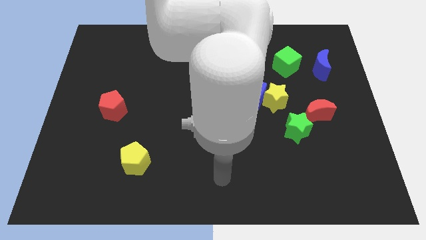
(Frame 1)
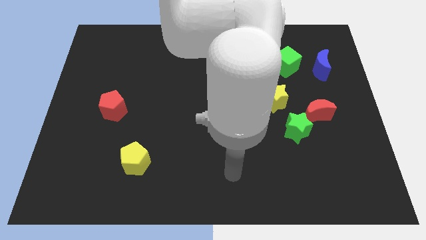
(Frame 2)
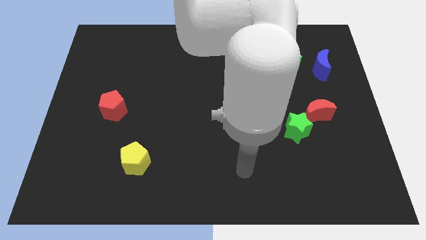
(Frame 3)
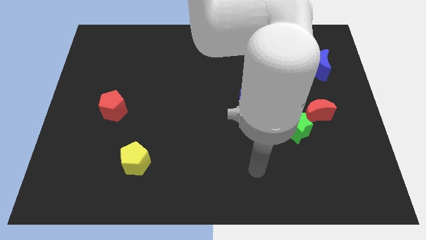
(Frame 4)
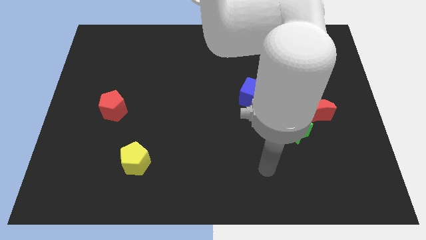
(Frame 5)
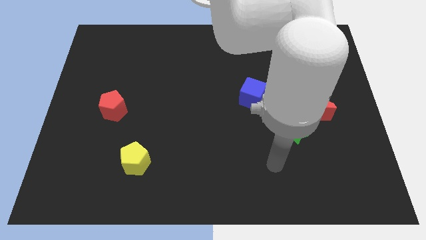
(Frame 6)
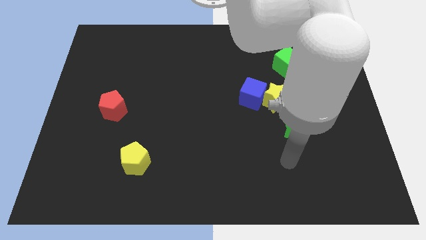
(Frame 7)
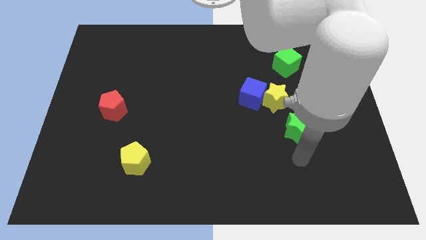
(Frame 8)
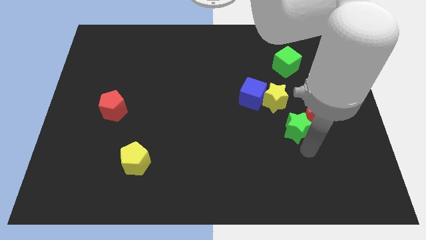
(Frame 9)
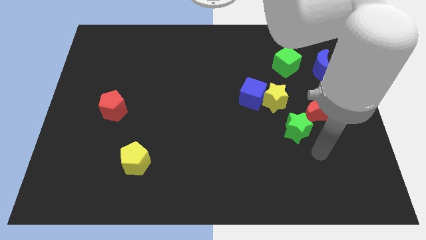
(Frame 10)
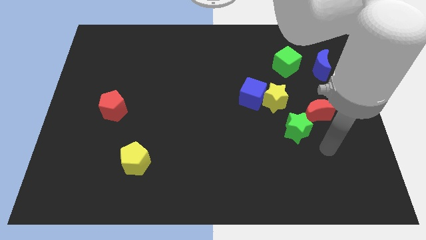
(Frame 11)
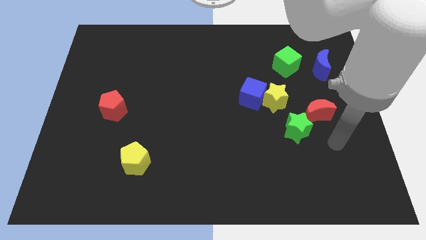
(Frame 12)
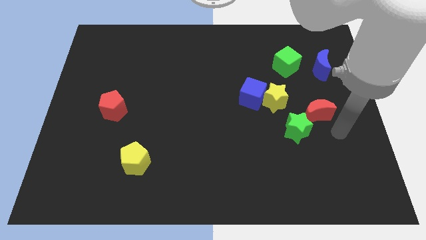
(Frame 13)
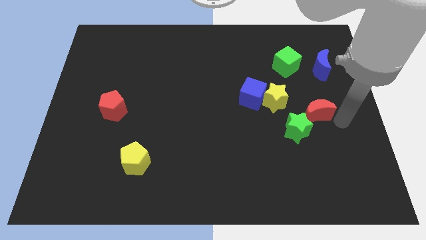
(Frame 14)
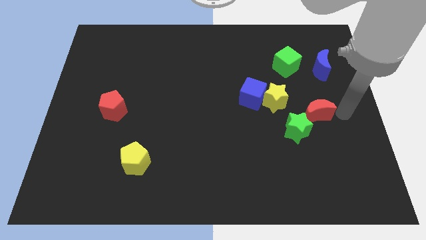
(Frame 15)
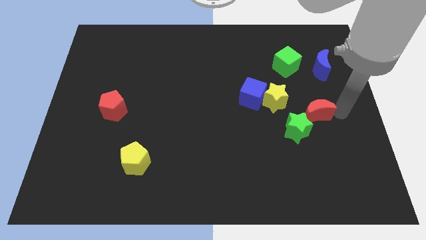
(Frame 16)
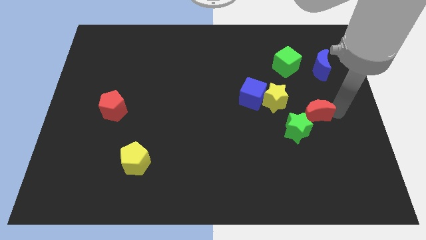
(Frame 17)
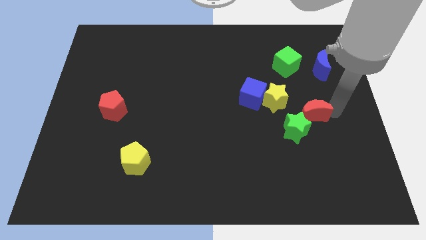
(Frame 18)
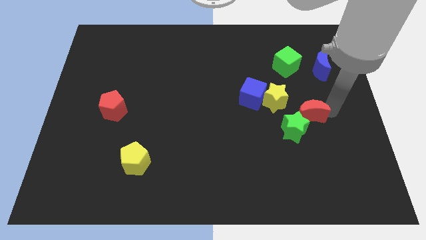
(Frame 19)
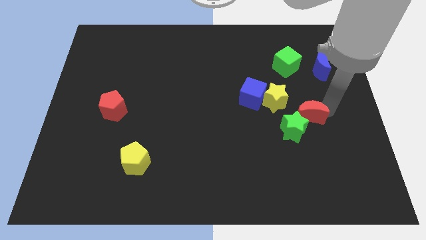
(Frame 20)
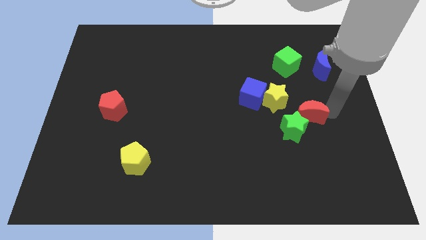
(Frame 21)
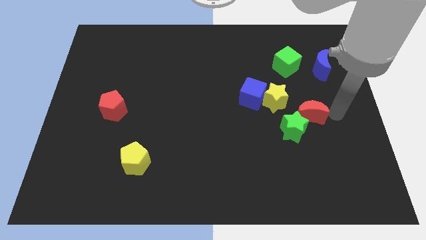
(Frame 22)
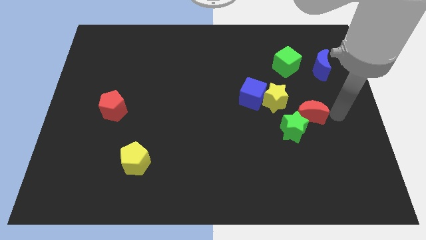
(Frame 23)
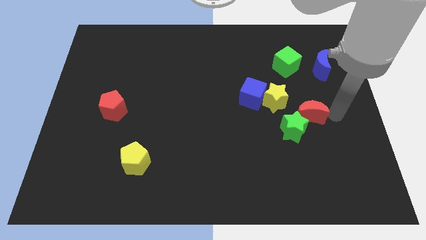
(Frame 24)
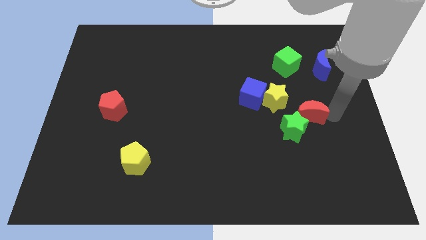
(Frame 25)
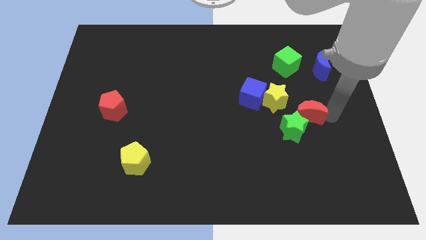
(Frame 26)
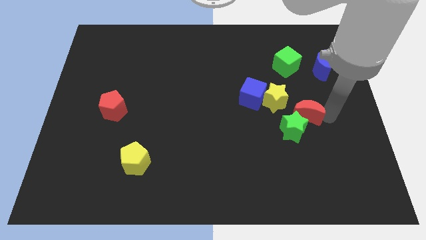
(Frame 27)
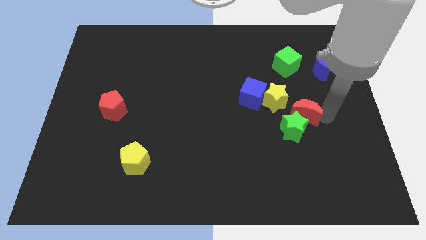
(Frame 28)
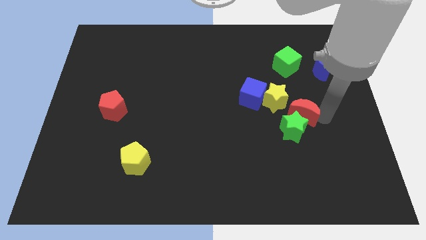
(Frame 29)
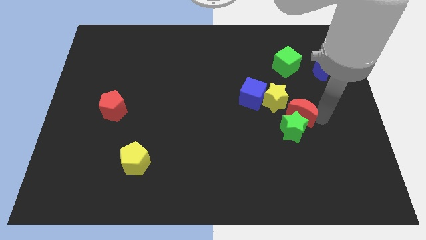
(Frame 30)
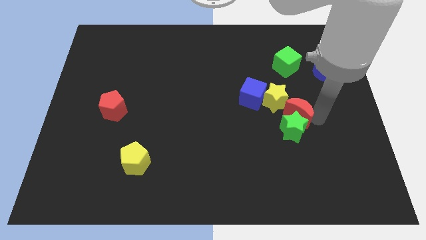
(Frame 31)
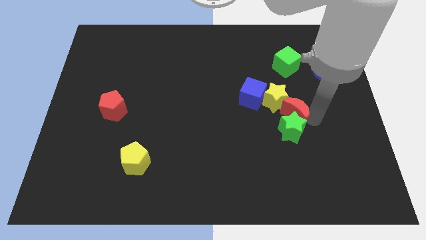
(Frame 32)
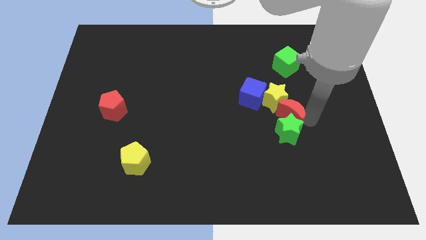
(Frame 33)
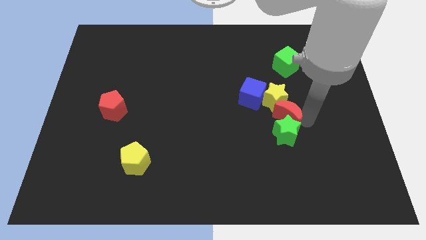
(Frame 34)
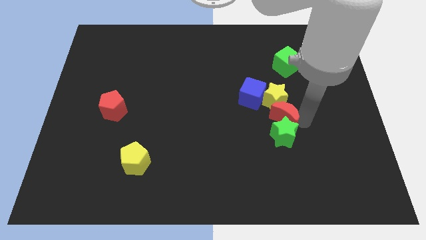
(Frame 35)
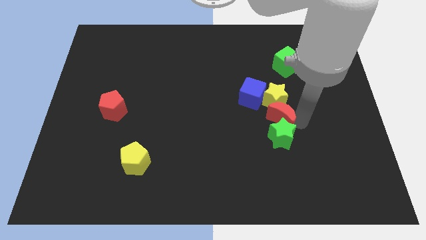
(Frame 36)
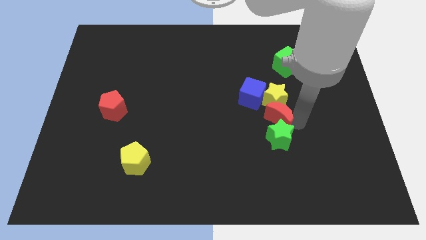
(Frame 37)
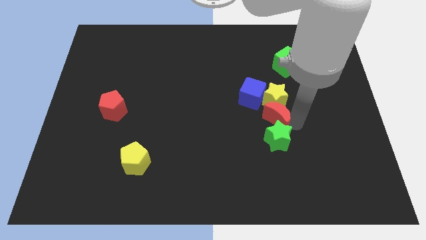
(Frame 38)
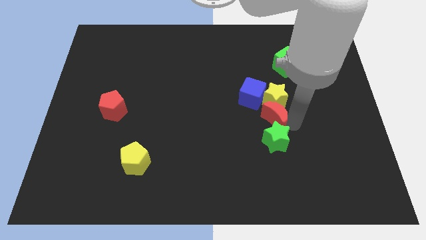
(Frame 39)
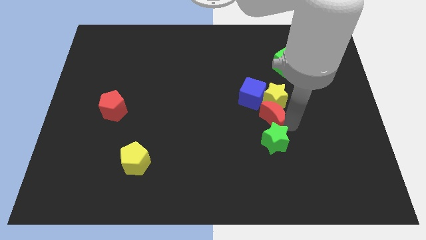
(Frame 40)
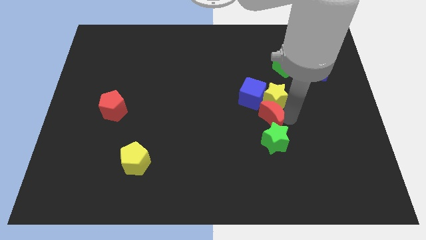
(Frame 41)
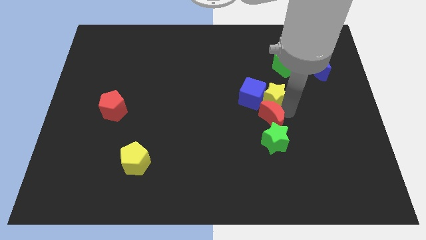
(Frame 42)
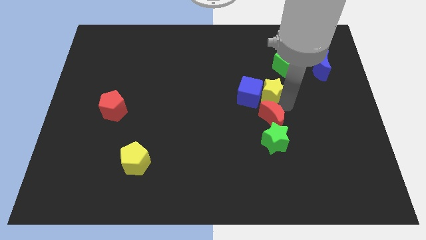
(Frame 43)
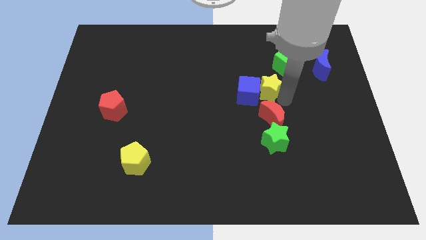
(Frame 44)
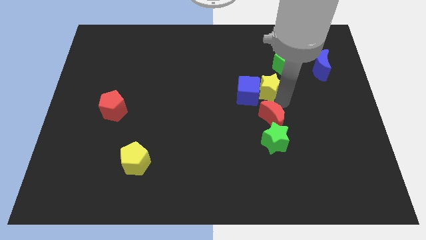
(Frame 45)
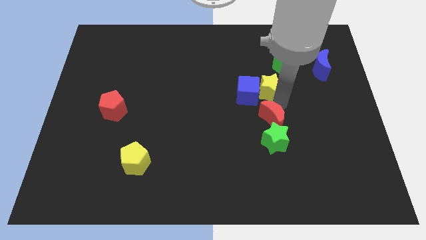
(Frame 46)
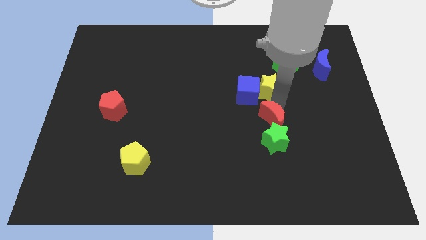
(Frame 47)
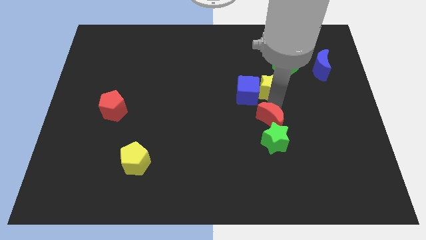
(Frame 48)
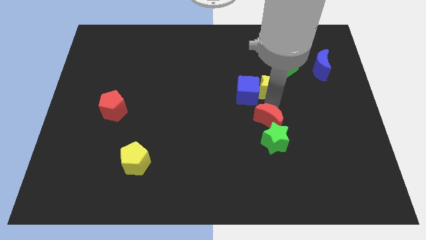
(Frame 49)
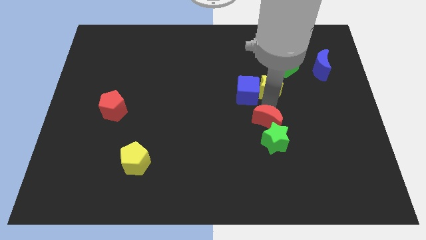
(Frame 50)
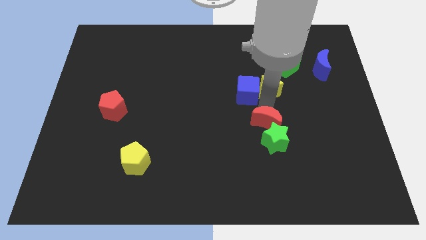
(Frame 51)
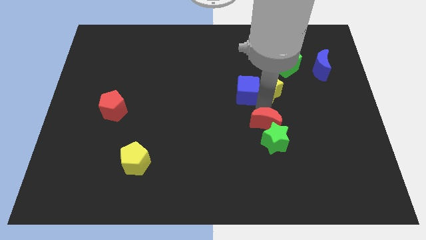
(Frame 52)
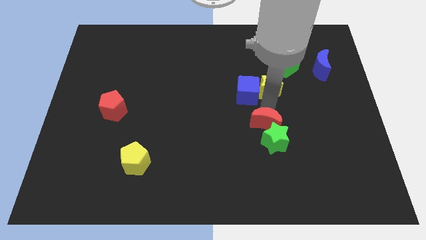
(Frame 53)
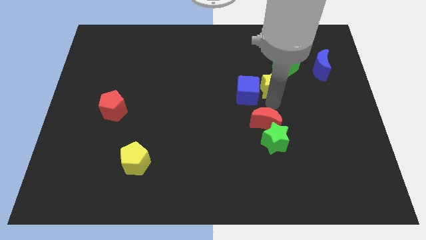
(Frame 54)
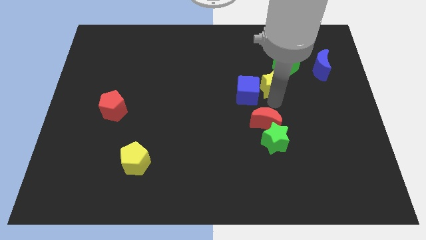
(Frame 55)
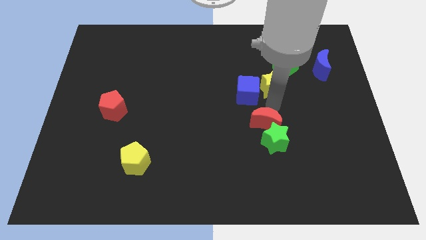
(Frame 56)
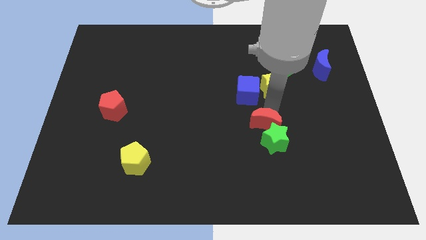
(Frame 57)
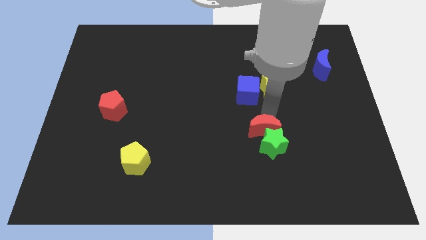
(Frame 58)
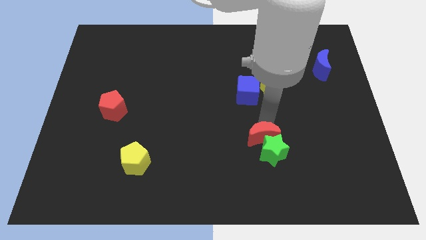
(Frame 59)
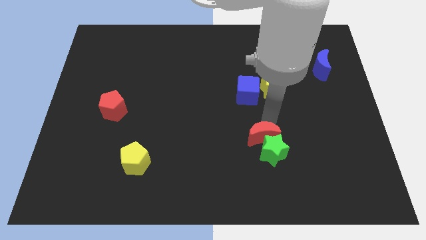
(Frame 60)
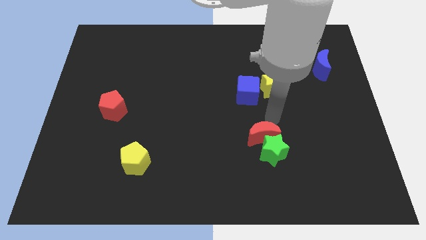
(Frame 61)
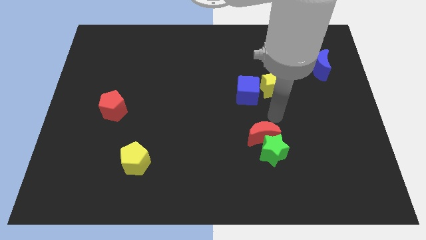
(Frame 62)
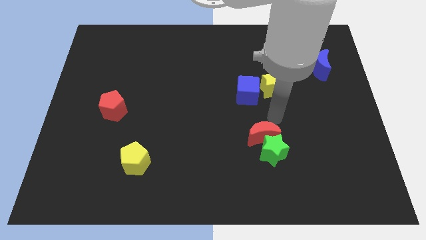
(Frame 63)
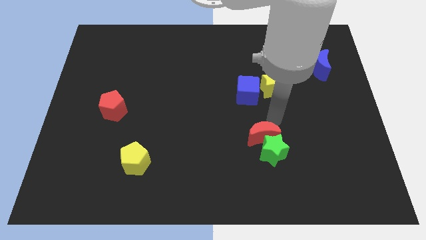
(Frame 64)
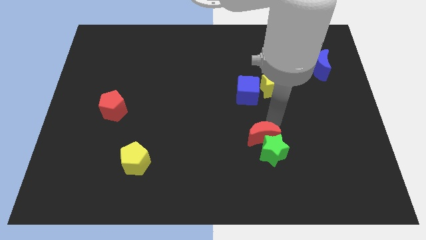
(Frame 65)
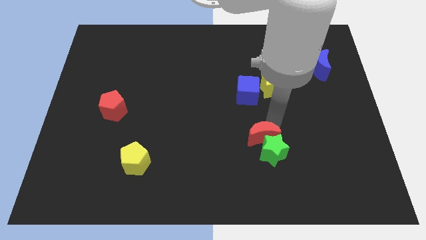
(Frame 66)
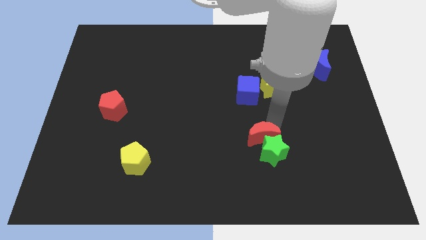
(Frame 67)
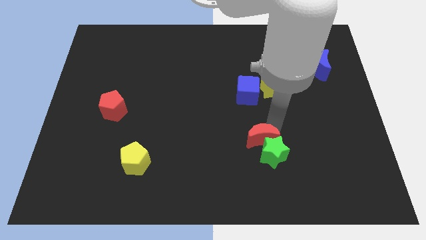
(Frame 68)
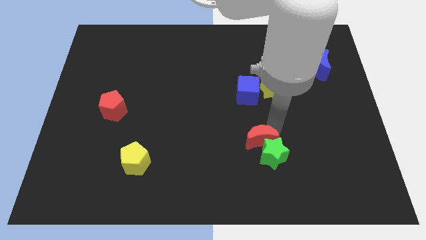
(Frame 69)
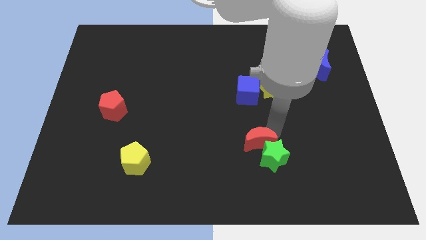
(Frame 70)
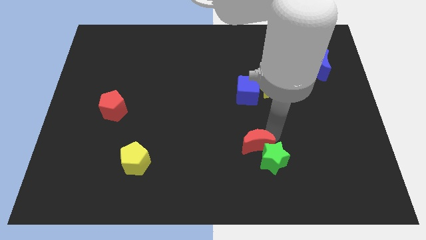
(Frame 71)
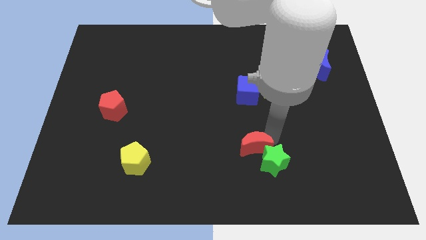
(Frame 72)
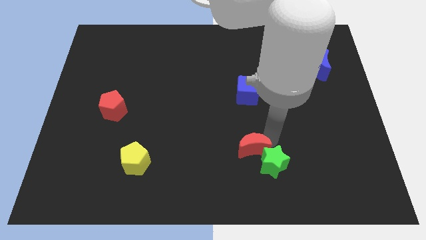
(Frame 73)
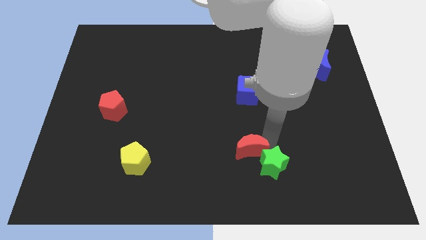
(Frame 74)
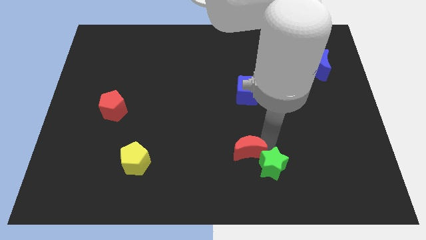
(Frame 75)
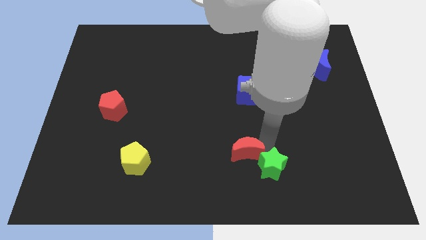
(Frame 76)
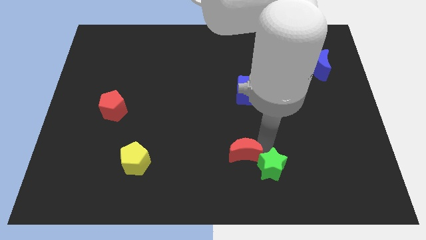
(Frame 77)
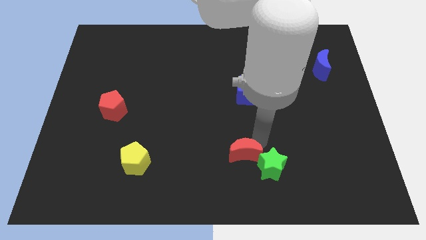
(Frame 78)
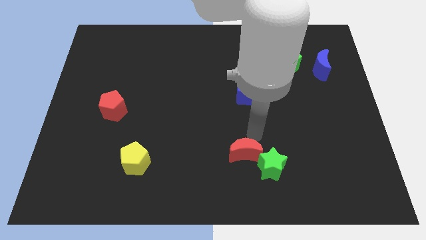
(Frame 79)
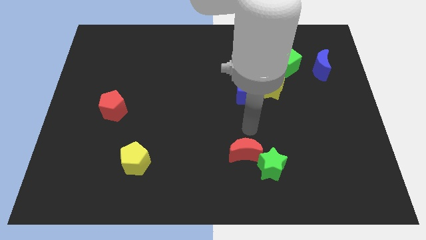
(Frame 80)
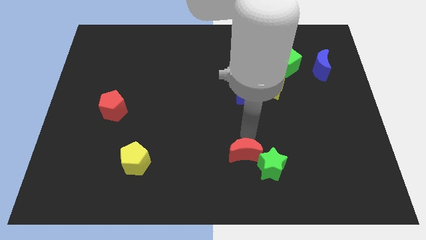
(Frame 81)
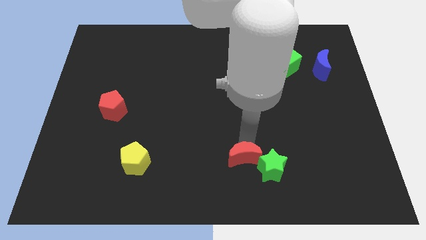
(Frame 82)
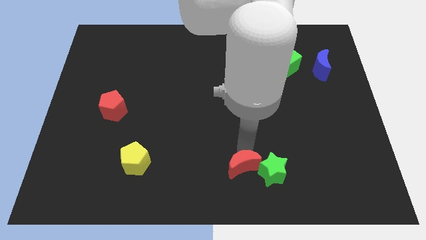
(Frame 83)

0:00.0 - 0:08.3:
put the red moon to the bottom side
